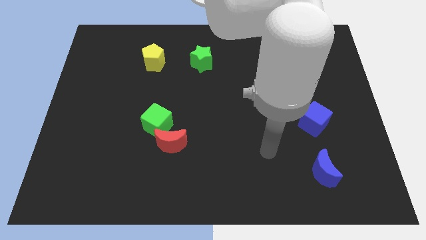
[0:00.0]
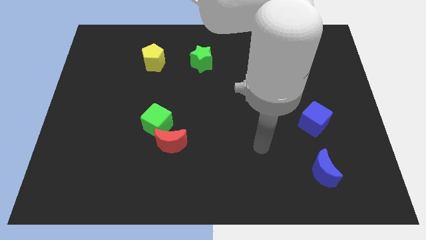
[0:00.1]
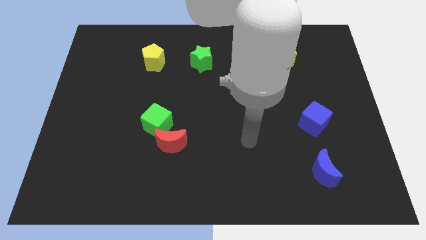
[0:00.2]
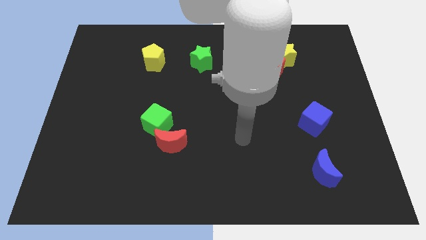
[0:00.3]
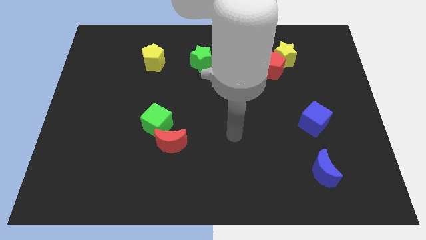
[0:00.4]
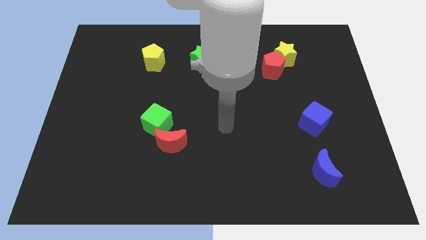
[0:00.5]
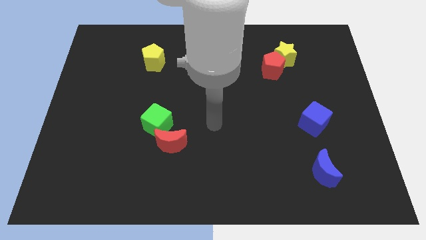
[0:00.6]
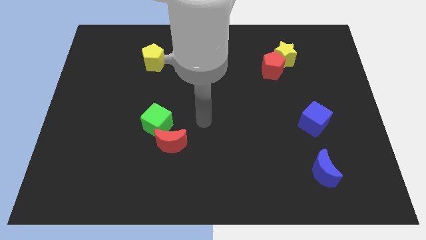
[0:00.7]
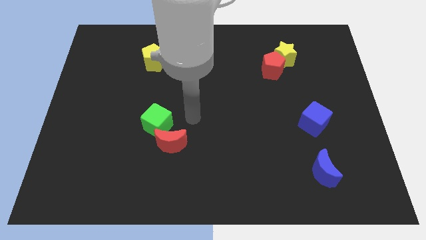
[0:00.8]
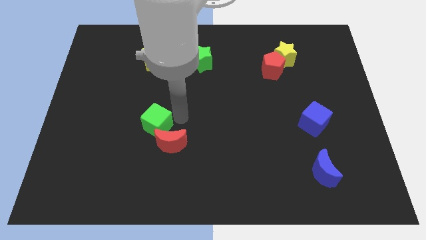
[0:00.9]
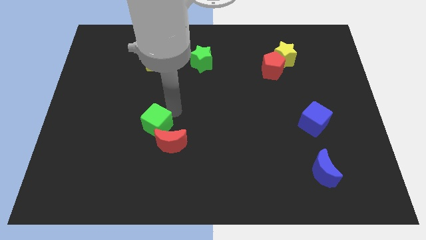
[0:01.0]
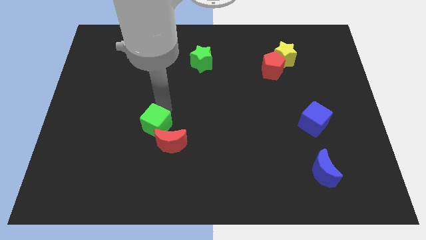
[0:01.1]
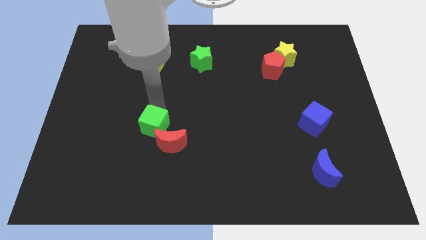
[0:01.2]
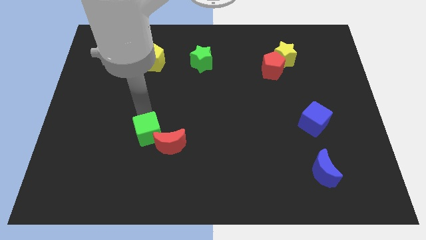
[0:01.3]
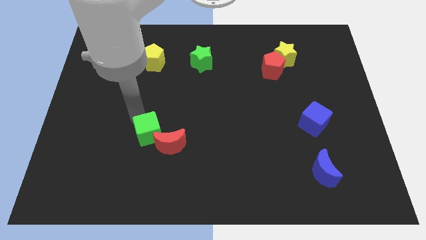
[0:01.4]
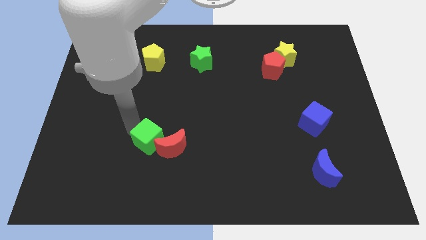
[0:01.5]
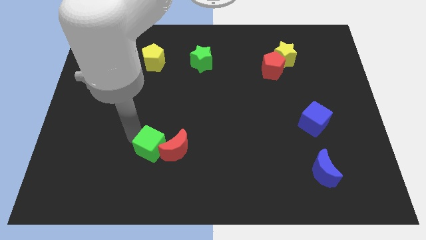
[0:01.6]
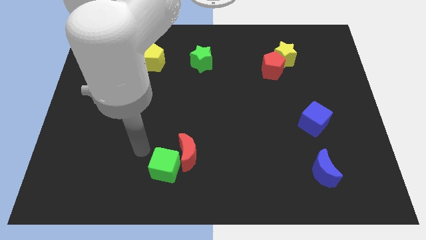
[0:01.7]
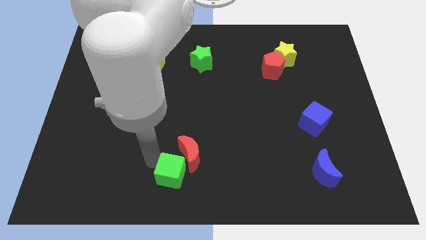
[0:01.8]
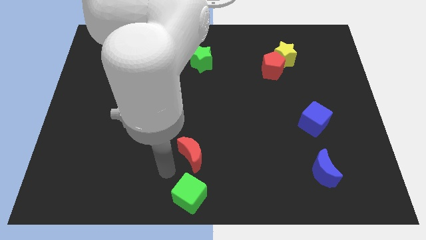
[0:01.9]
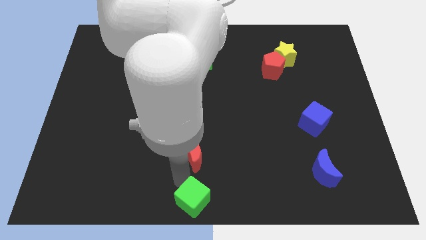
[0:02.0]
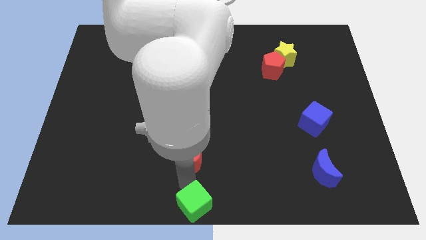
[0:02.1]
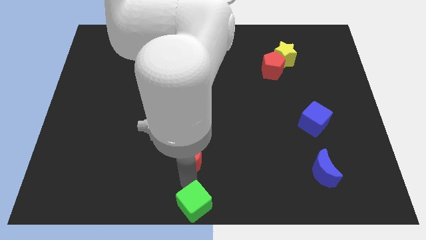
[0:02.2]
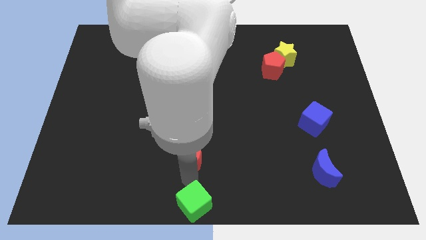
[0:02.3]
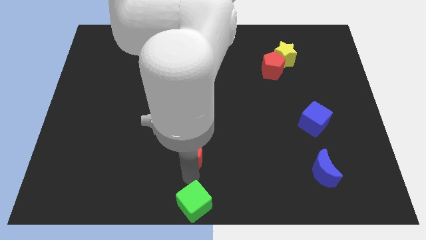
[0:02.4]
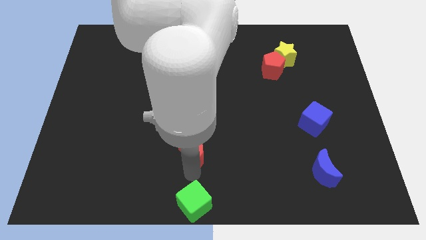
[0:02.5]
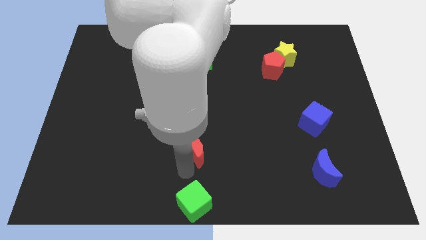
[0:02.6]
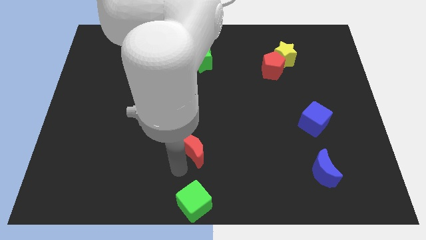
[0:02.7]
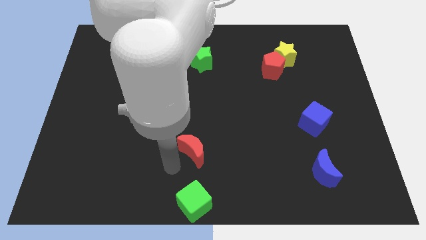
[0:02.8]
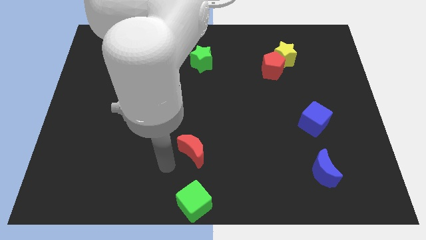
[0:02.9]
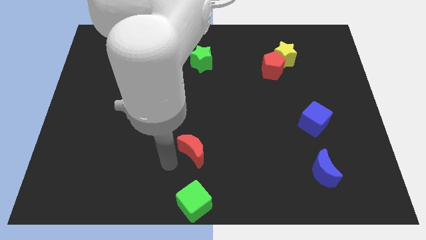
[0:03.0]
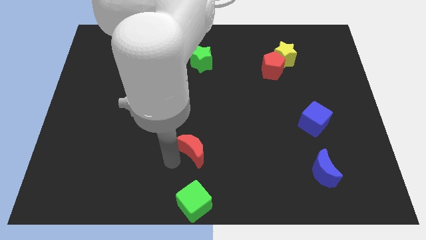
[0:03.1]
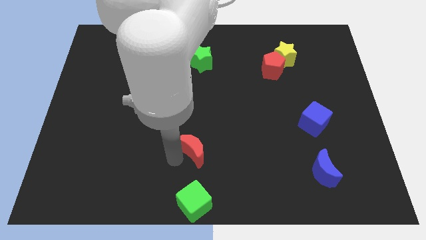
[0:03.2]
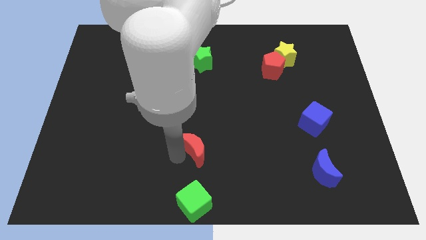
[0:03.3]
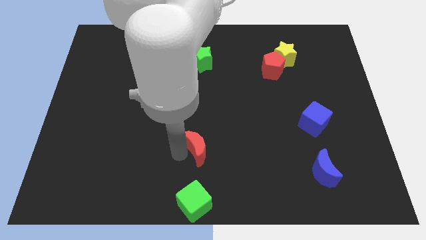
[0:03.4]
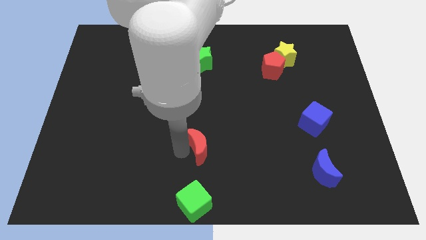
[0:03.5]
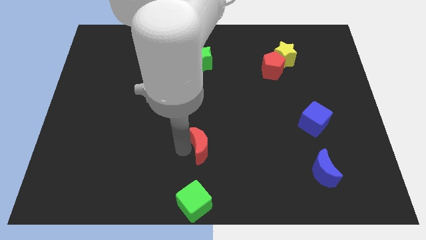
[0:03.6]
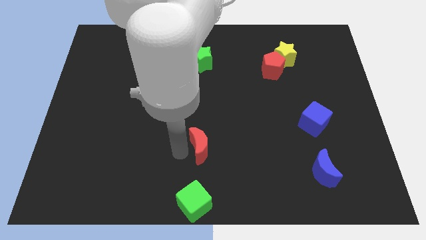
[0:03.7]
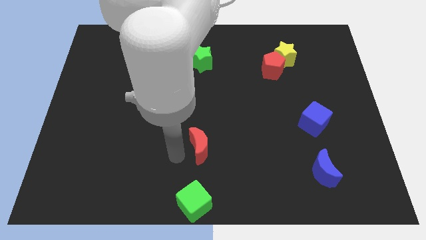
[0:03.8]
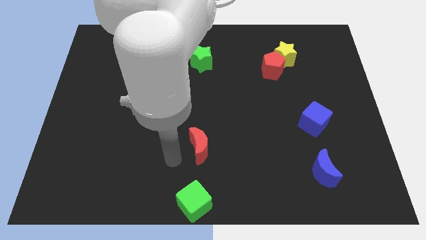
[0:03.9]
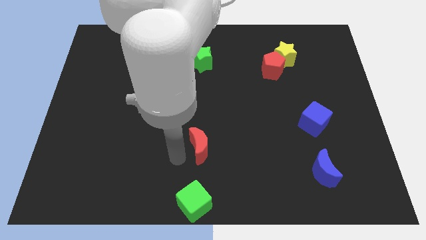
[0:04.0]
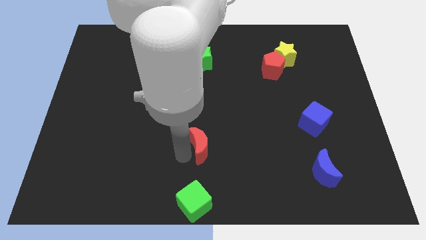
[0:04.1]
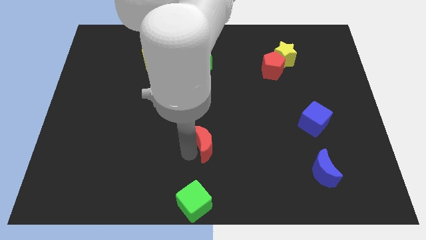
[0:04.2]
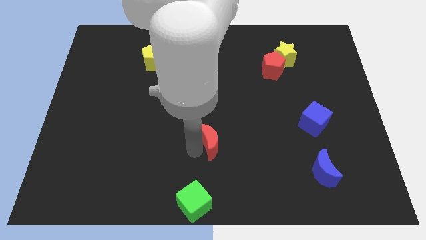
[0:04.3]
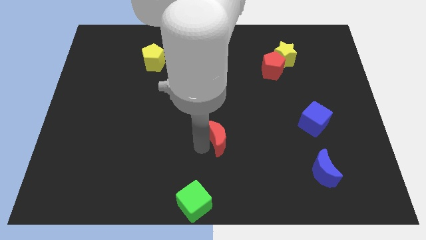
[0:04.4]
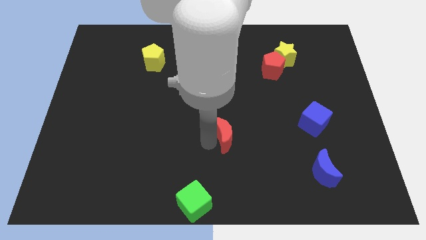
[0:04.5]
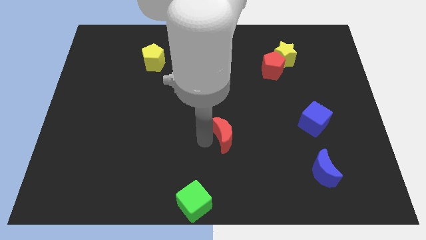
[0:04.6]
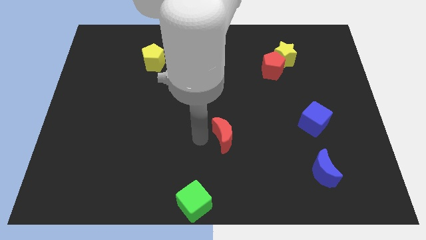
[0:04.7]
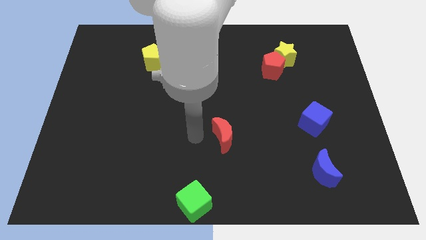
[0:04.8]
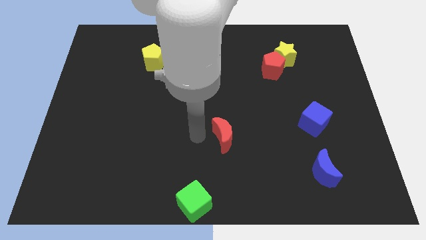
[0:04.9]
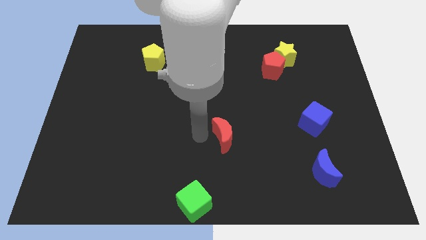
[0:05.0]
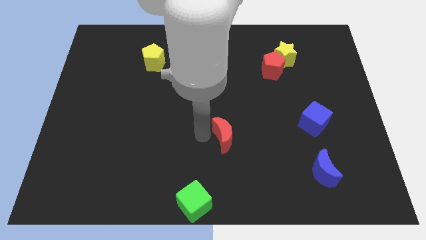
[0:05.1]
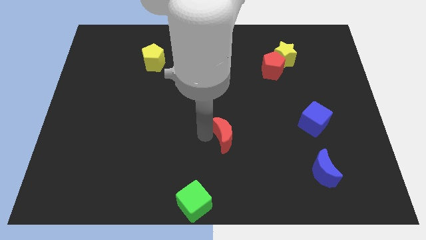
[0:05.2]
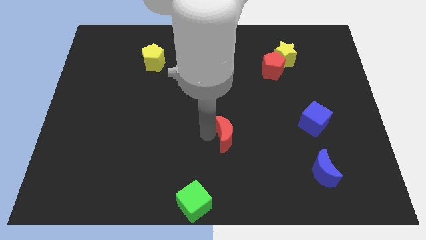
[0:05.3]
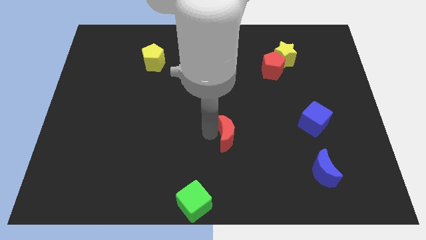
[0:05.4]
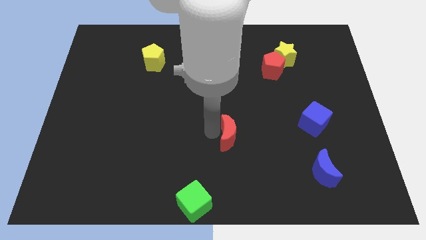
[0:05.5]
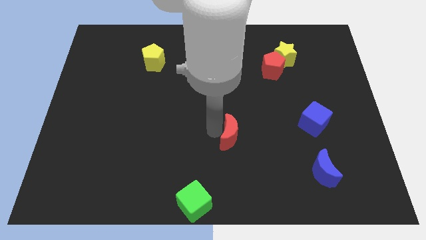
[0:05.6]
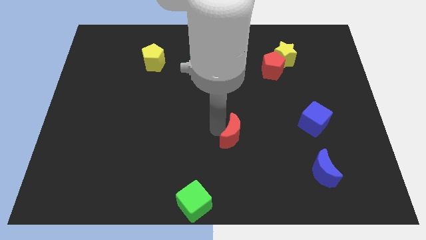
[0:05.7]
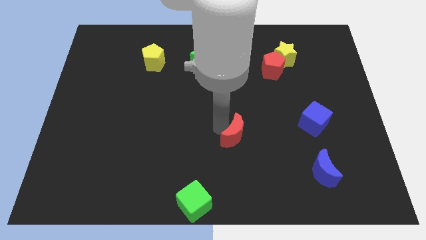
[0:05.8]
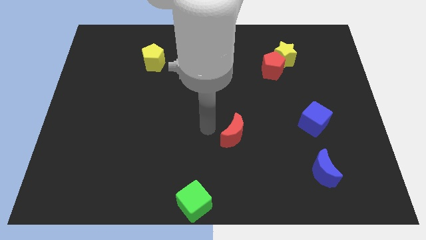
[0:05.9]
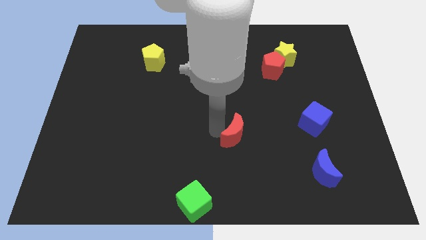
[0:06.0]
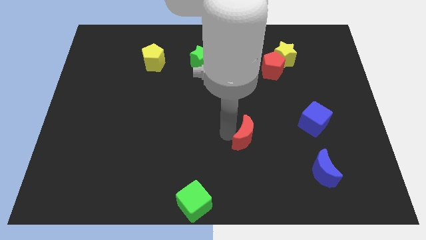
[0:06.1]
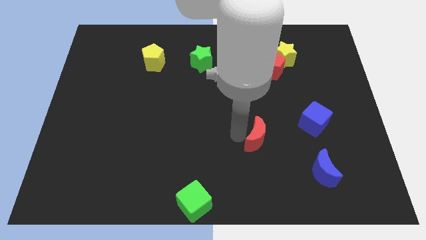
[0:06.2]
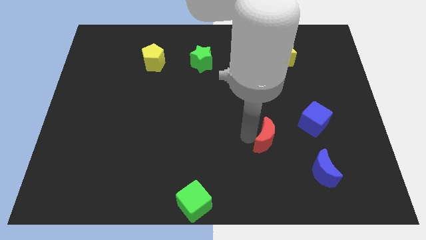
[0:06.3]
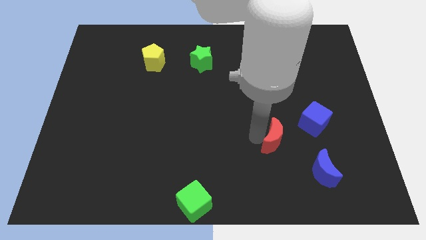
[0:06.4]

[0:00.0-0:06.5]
put the red moon diagonally up and to the left of the blue moon

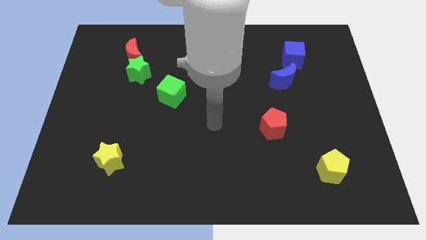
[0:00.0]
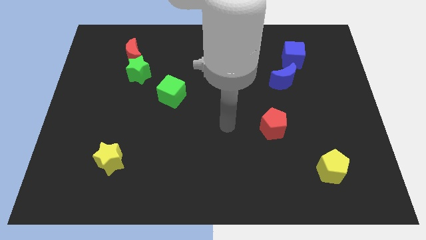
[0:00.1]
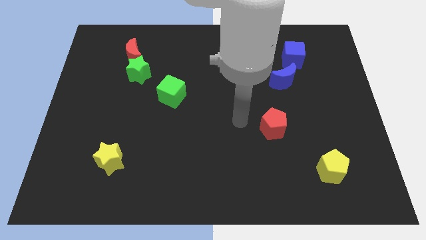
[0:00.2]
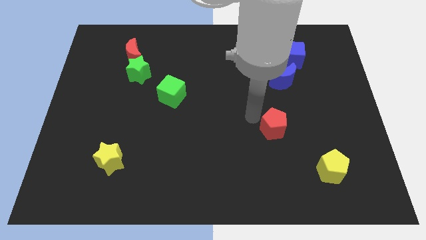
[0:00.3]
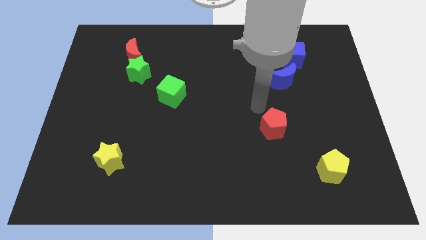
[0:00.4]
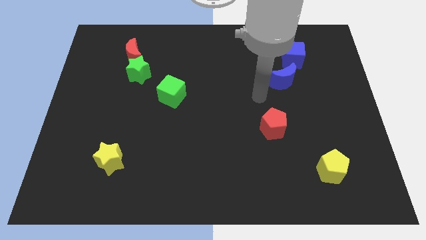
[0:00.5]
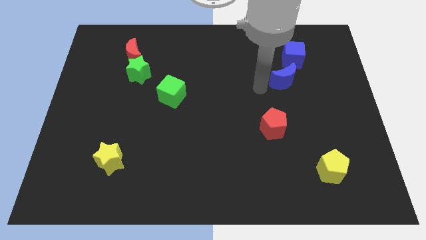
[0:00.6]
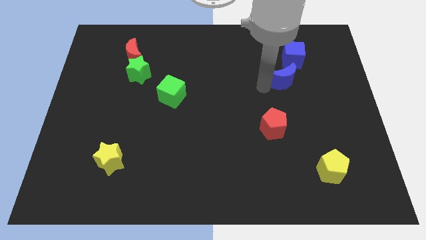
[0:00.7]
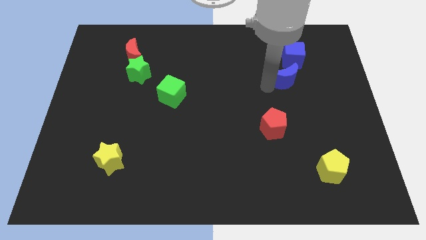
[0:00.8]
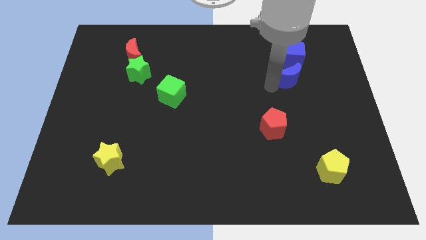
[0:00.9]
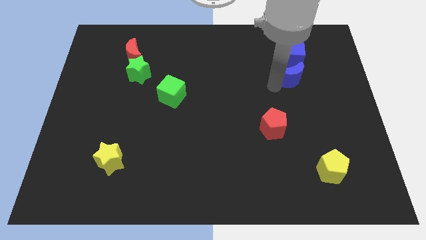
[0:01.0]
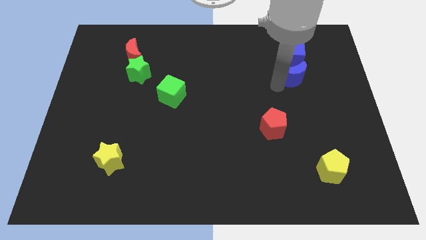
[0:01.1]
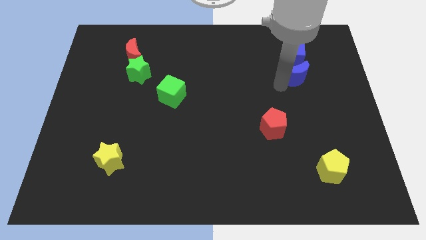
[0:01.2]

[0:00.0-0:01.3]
push the blue moon diagonally down and to the right of the blue cube
